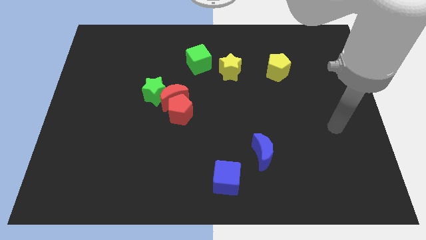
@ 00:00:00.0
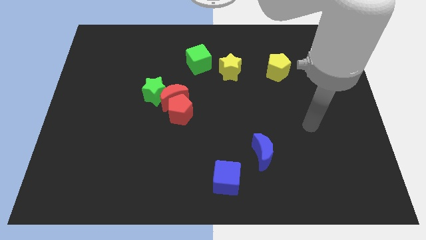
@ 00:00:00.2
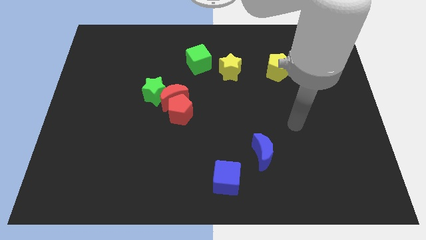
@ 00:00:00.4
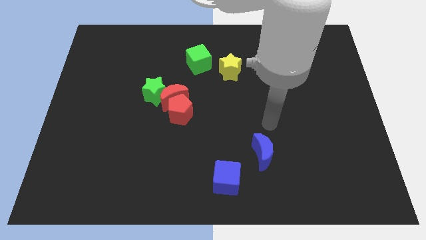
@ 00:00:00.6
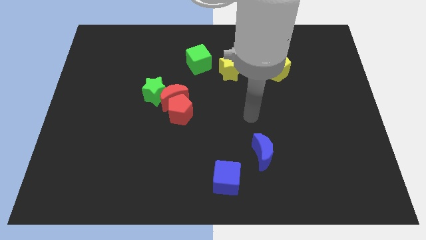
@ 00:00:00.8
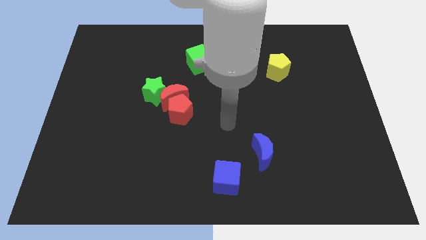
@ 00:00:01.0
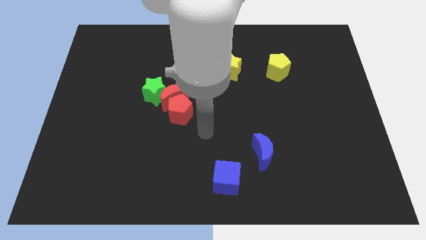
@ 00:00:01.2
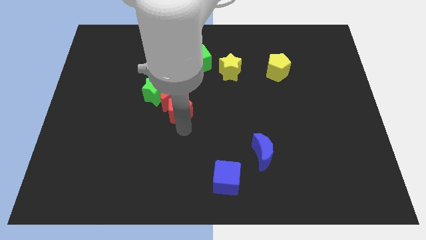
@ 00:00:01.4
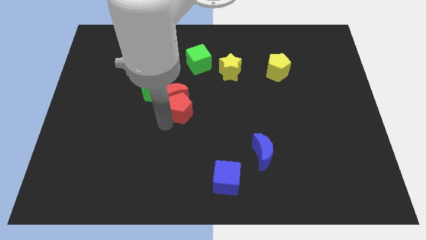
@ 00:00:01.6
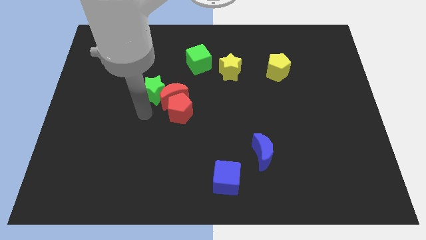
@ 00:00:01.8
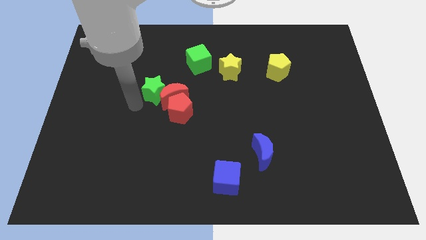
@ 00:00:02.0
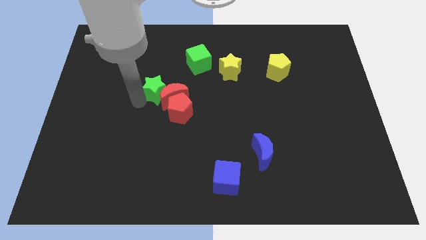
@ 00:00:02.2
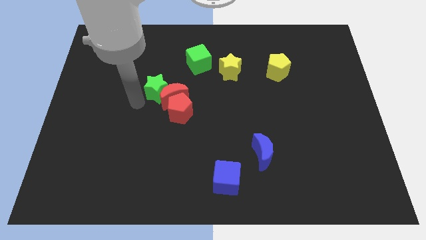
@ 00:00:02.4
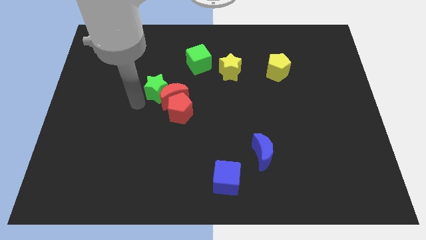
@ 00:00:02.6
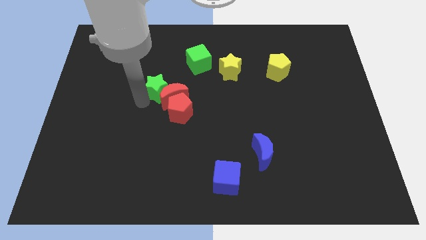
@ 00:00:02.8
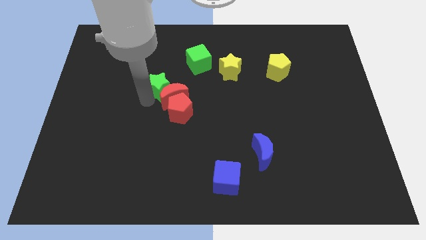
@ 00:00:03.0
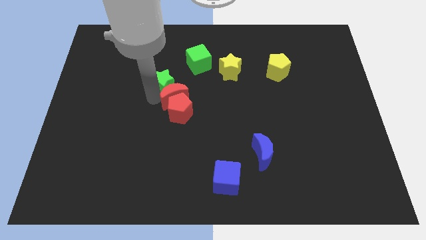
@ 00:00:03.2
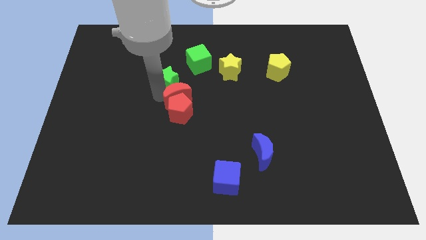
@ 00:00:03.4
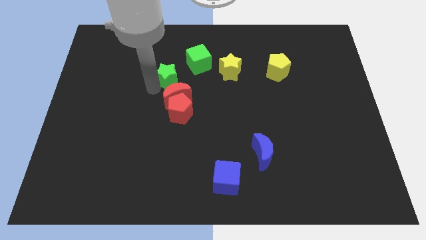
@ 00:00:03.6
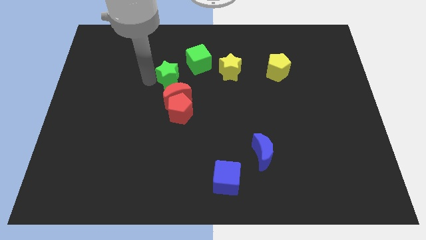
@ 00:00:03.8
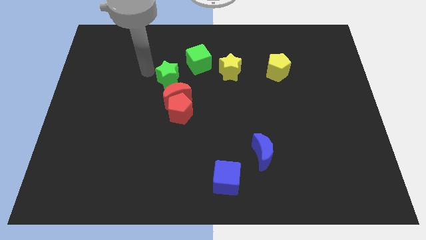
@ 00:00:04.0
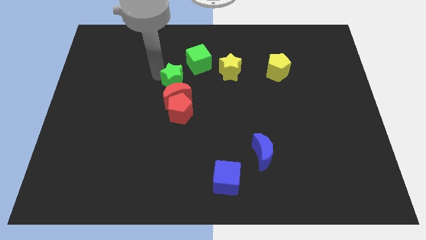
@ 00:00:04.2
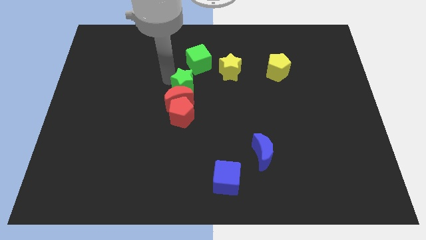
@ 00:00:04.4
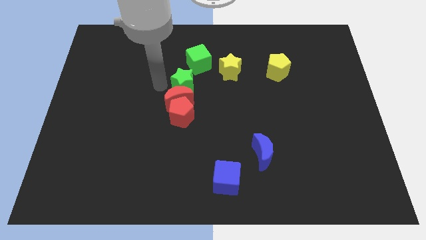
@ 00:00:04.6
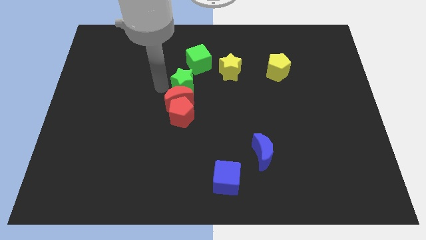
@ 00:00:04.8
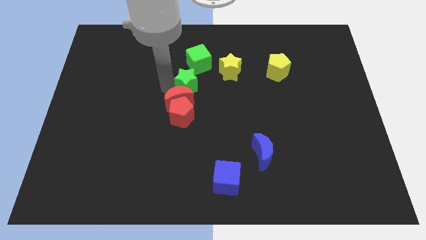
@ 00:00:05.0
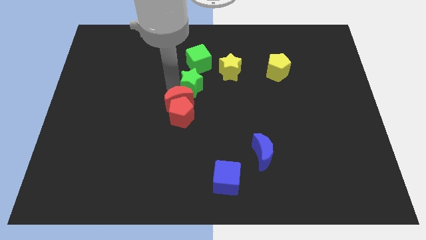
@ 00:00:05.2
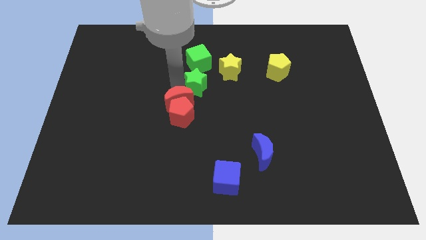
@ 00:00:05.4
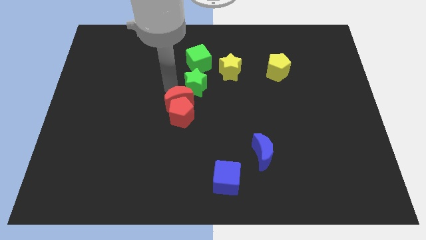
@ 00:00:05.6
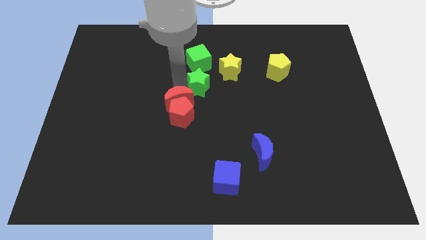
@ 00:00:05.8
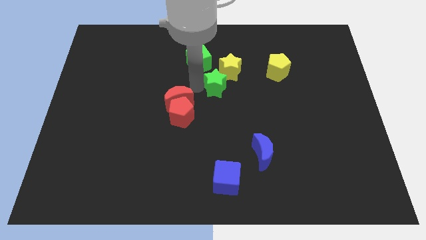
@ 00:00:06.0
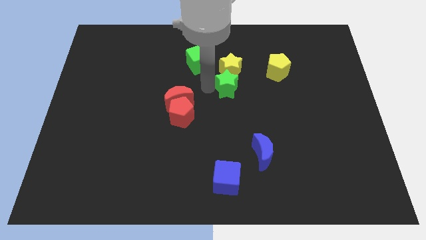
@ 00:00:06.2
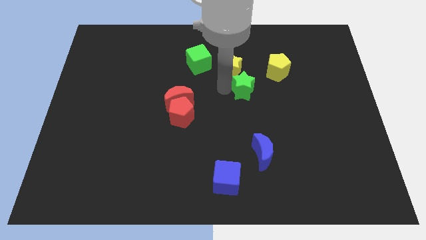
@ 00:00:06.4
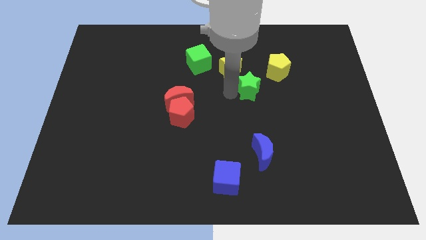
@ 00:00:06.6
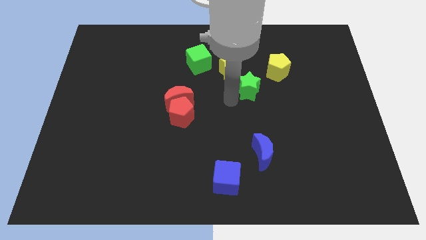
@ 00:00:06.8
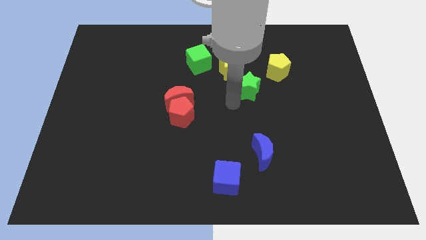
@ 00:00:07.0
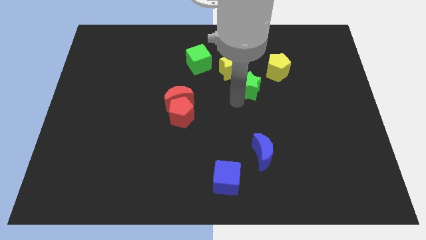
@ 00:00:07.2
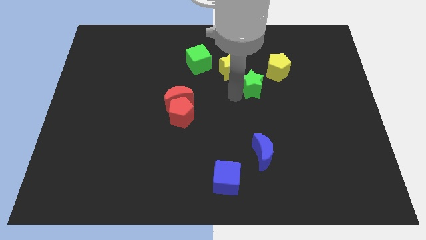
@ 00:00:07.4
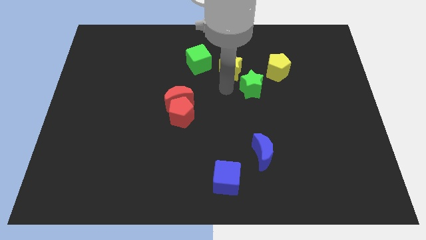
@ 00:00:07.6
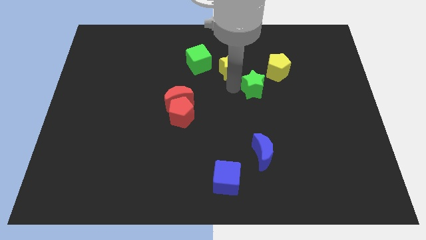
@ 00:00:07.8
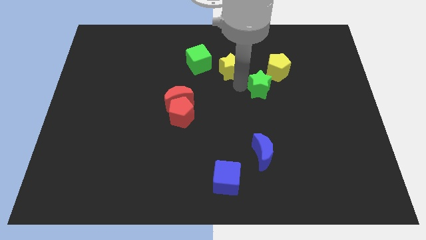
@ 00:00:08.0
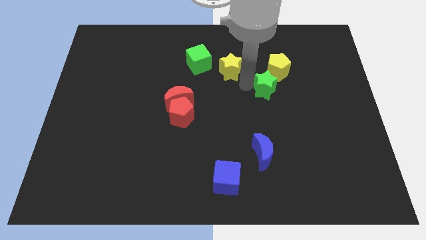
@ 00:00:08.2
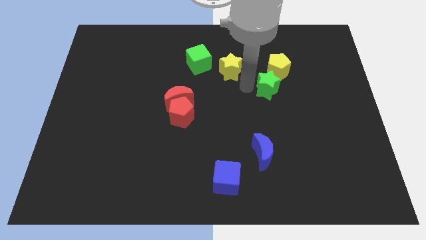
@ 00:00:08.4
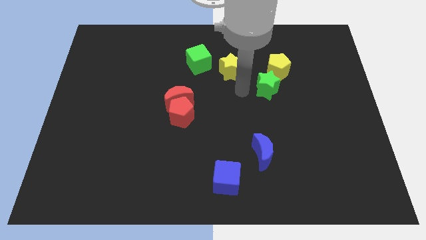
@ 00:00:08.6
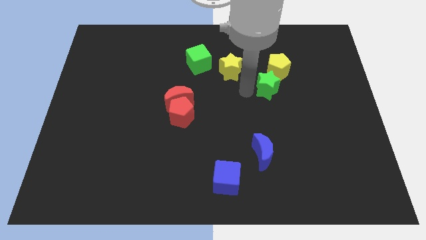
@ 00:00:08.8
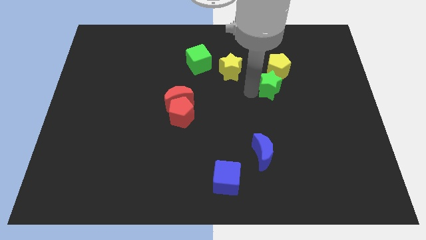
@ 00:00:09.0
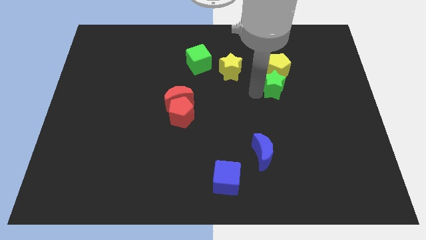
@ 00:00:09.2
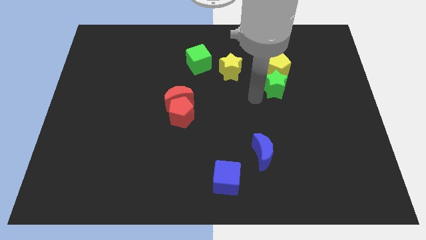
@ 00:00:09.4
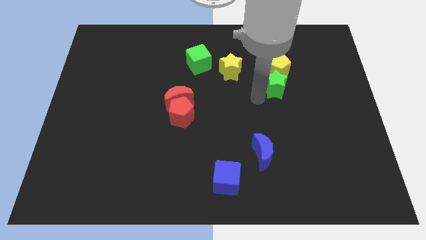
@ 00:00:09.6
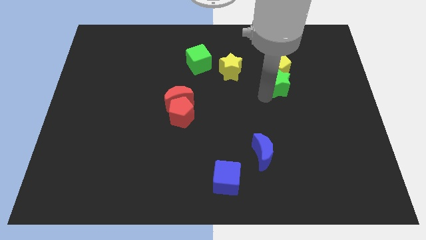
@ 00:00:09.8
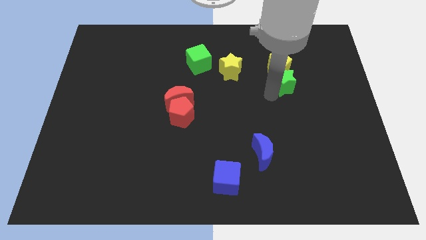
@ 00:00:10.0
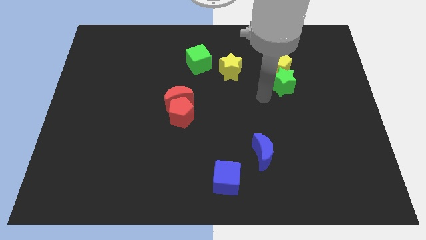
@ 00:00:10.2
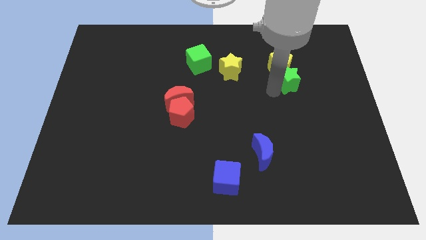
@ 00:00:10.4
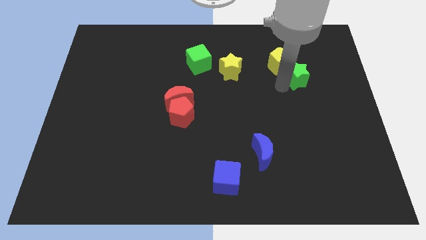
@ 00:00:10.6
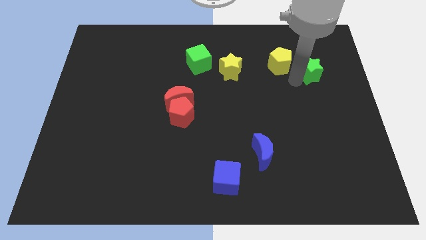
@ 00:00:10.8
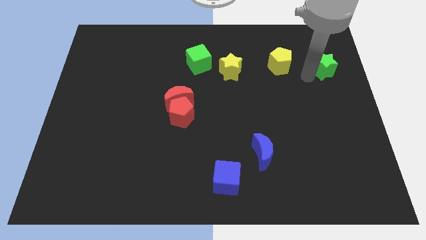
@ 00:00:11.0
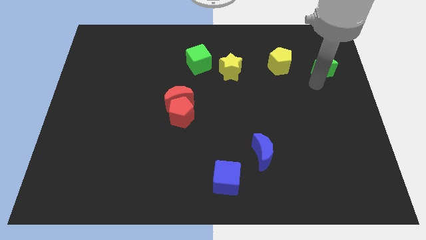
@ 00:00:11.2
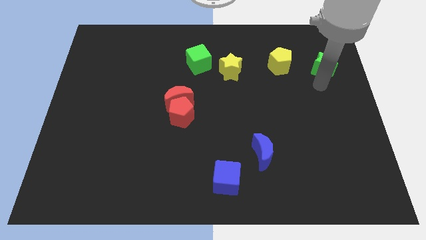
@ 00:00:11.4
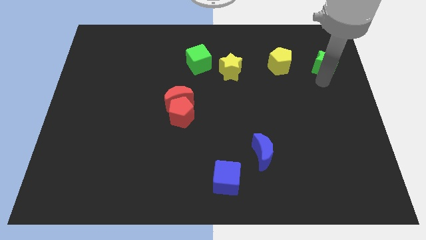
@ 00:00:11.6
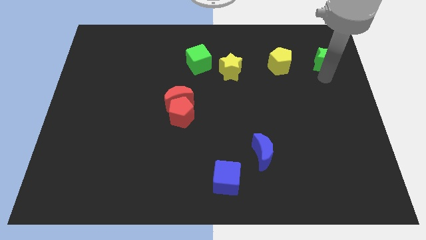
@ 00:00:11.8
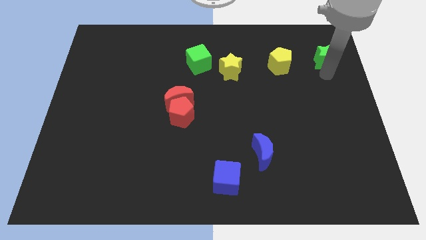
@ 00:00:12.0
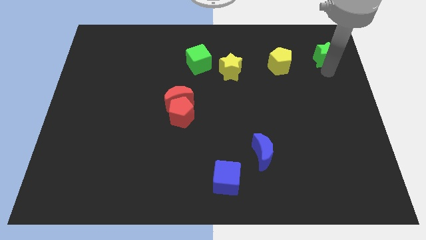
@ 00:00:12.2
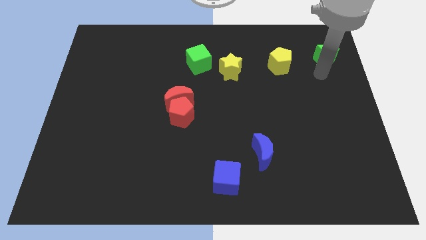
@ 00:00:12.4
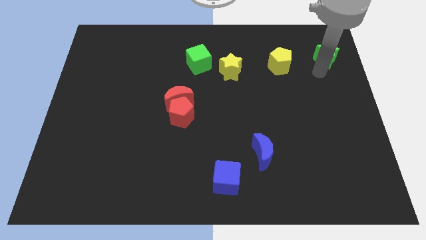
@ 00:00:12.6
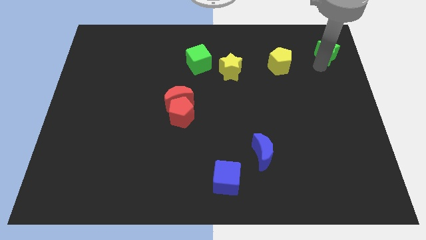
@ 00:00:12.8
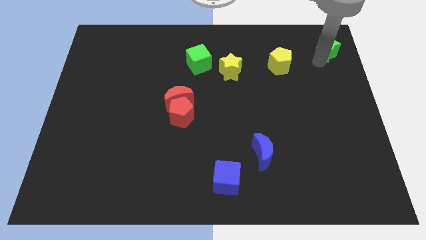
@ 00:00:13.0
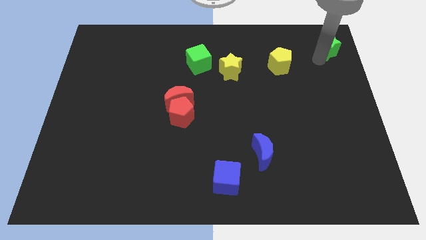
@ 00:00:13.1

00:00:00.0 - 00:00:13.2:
slide the green star to the top right
